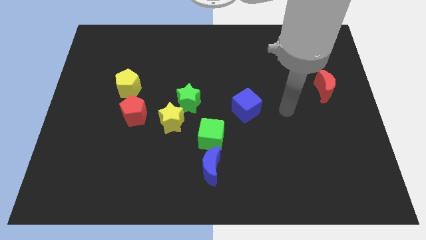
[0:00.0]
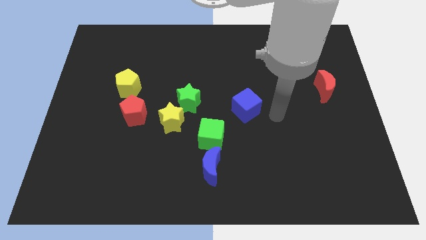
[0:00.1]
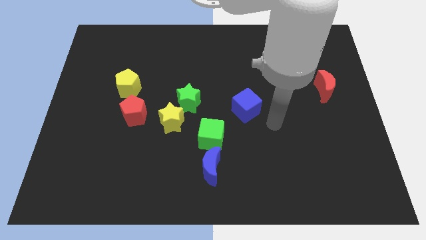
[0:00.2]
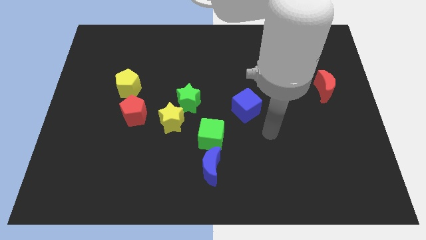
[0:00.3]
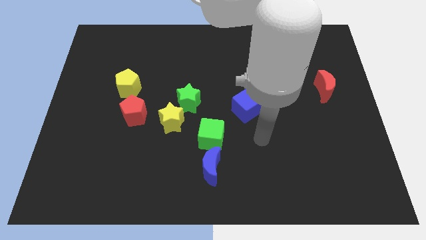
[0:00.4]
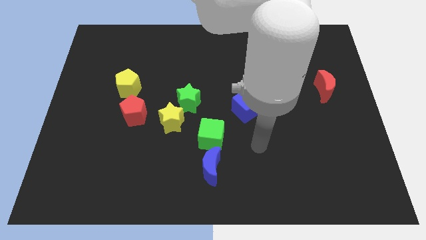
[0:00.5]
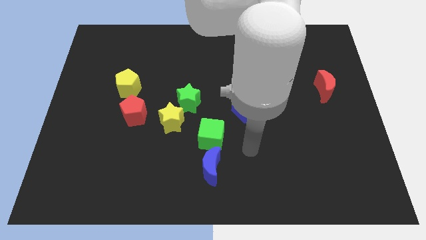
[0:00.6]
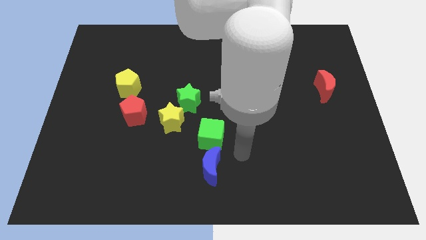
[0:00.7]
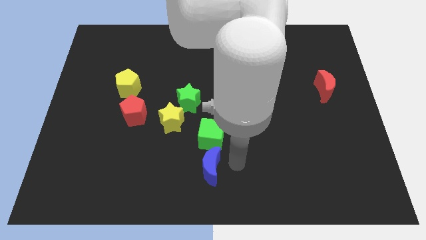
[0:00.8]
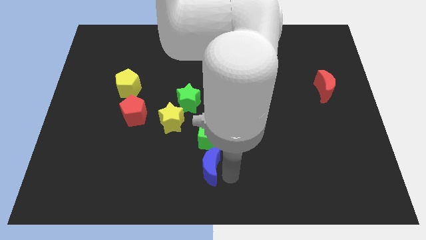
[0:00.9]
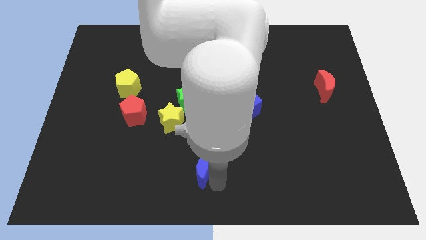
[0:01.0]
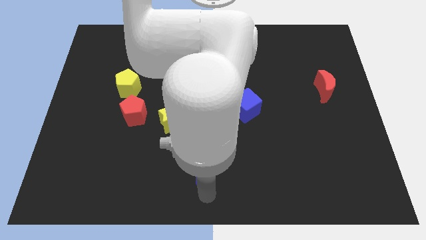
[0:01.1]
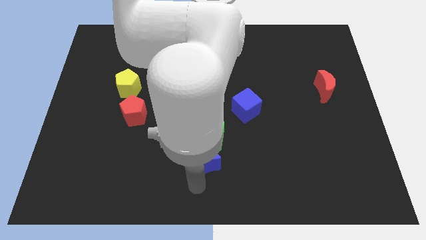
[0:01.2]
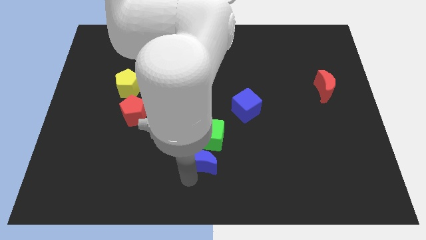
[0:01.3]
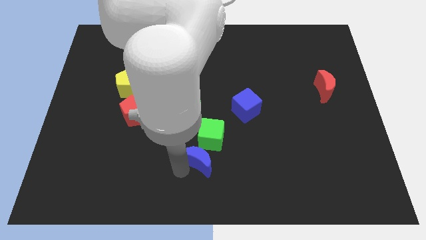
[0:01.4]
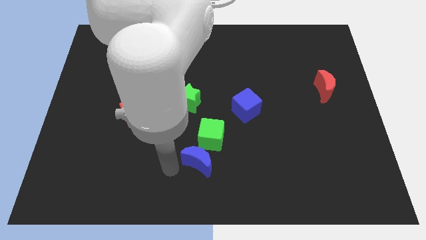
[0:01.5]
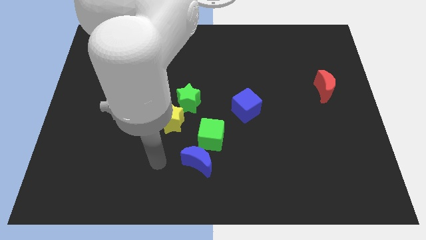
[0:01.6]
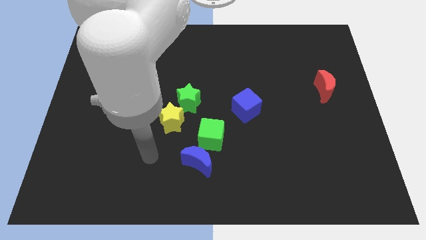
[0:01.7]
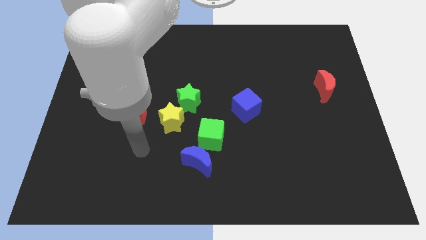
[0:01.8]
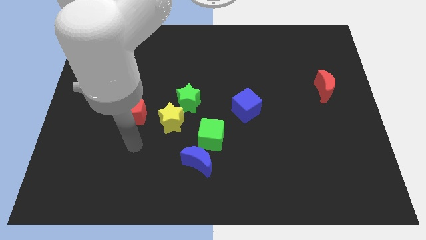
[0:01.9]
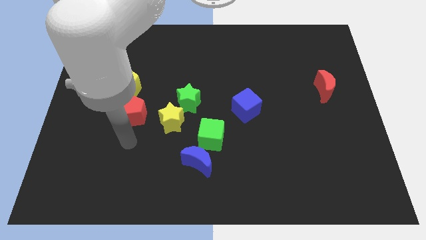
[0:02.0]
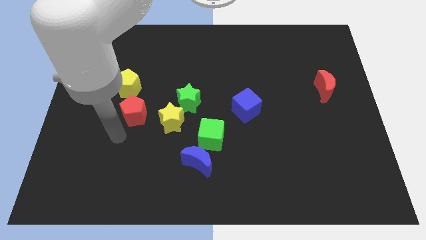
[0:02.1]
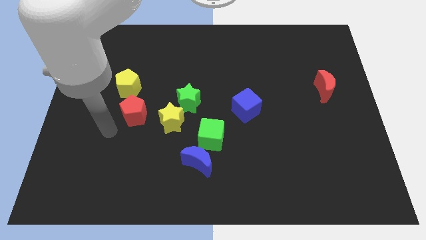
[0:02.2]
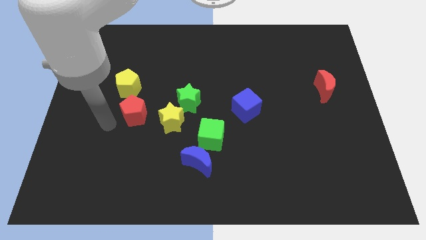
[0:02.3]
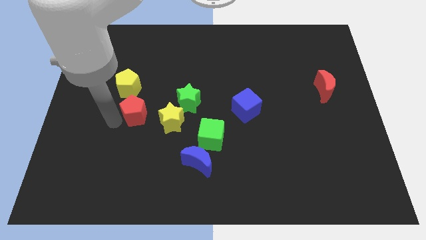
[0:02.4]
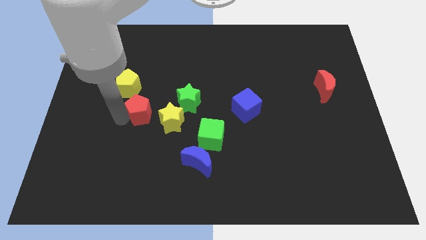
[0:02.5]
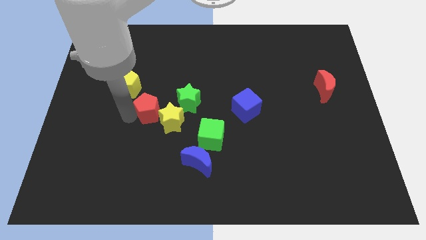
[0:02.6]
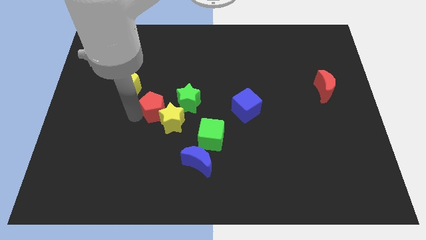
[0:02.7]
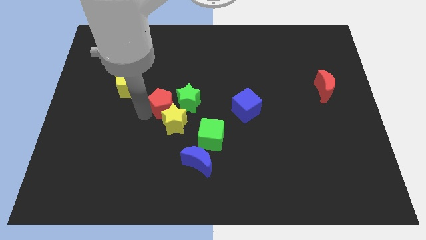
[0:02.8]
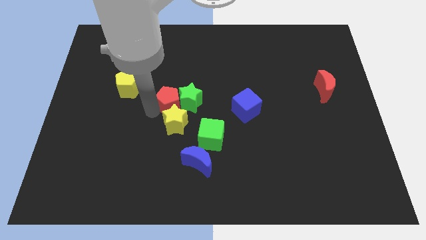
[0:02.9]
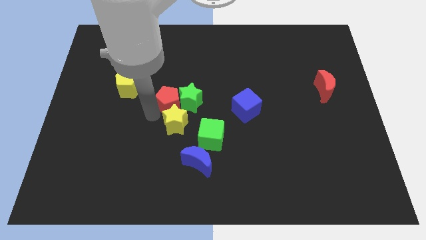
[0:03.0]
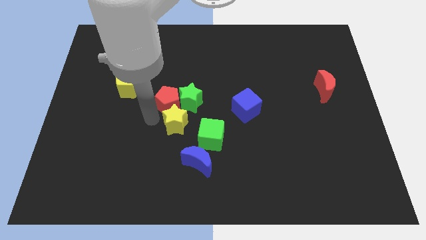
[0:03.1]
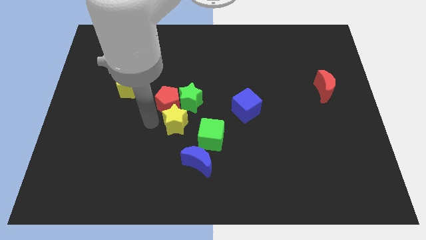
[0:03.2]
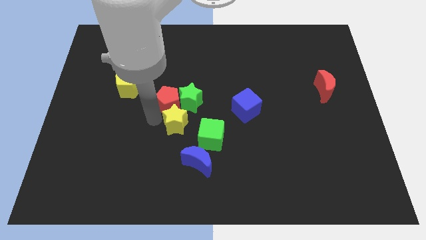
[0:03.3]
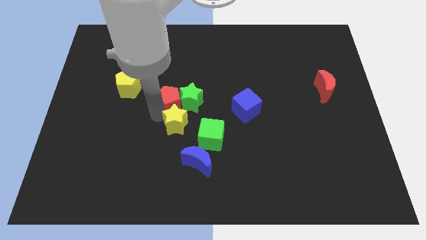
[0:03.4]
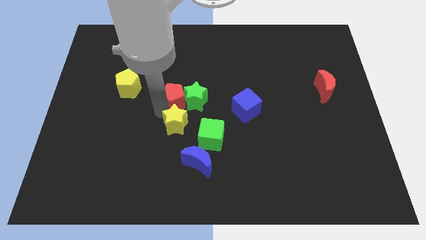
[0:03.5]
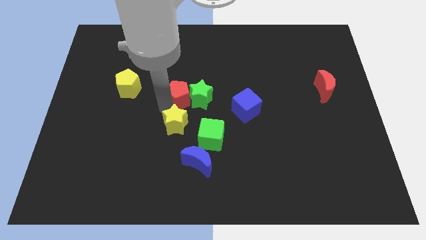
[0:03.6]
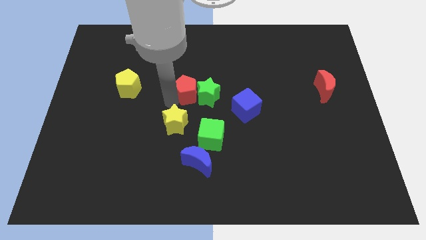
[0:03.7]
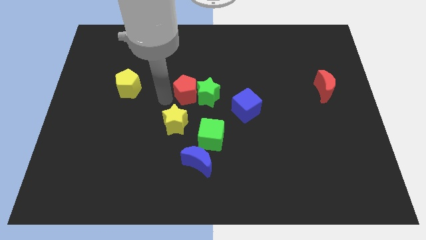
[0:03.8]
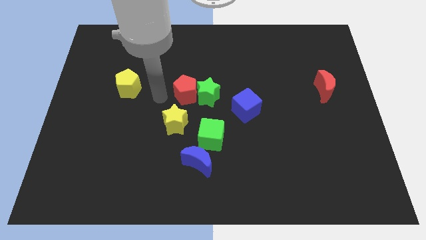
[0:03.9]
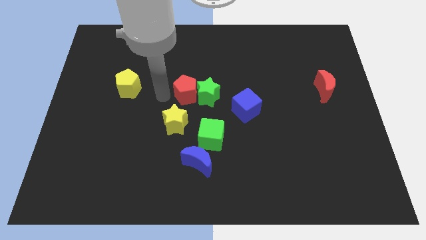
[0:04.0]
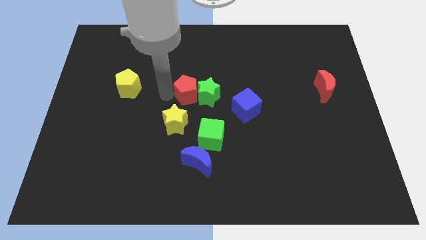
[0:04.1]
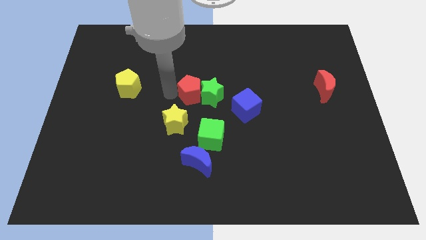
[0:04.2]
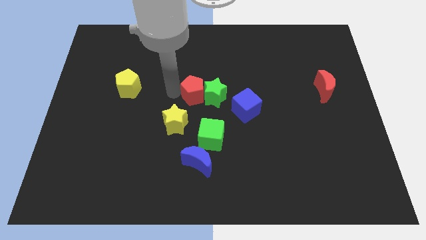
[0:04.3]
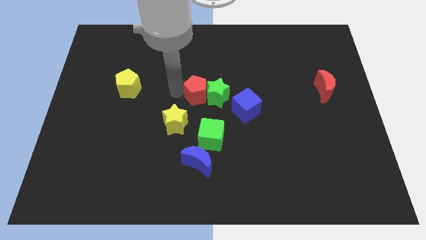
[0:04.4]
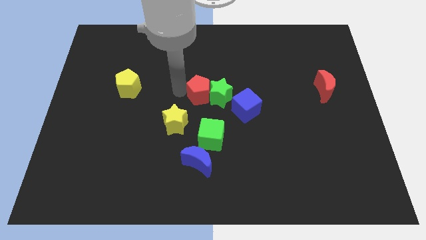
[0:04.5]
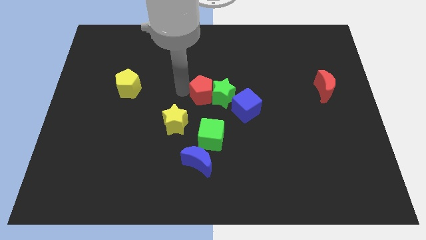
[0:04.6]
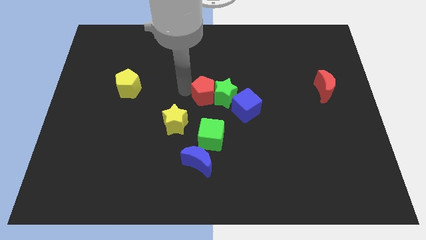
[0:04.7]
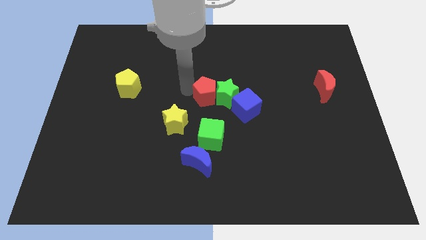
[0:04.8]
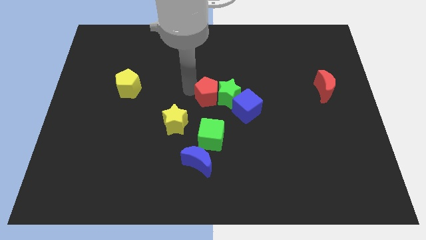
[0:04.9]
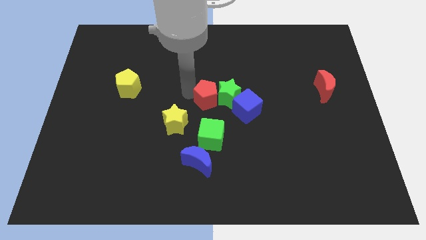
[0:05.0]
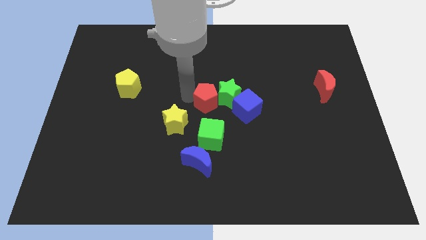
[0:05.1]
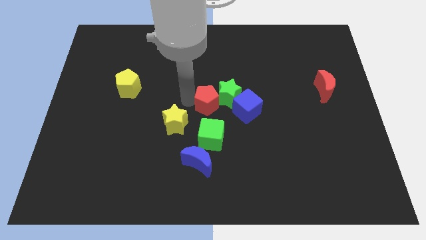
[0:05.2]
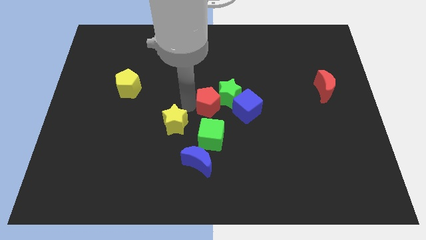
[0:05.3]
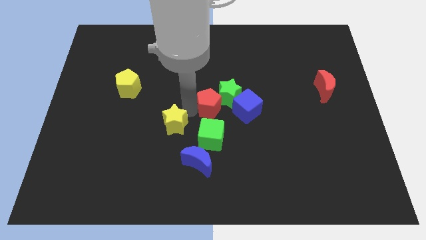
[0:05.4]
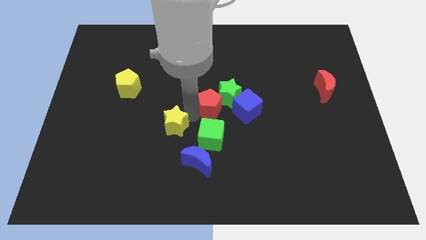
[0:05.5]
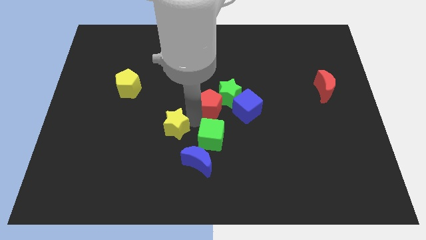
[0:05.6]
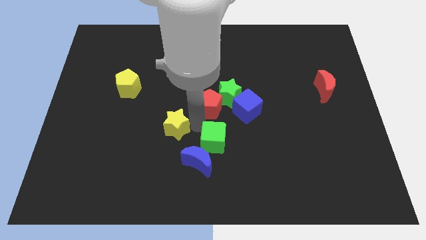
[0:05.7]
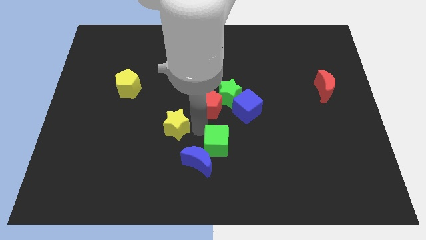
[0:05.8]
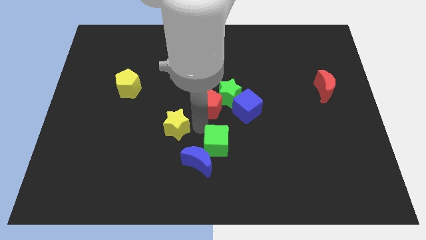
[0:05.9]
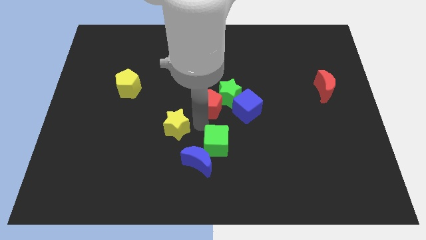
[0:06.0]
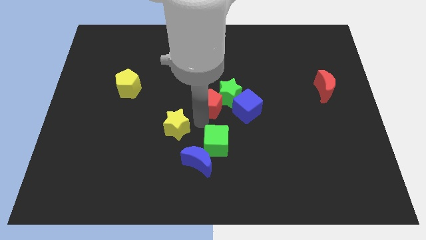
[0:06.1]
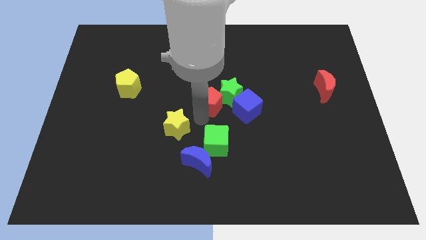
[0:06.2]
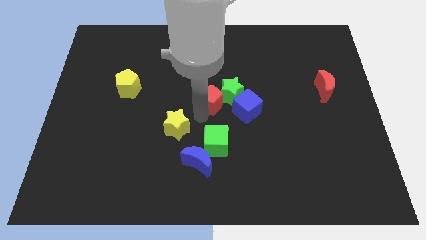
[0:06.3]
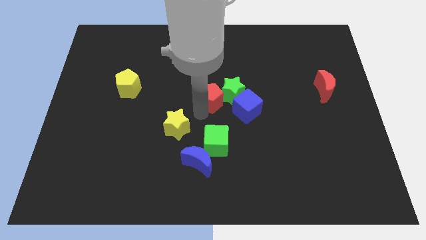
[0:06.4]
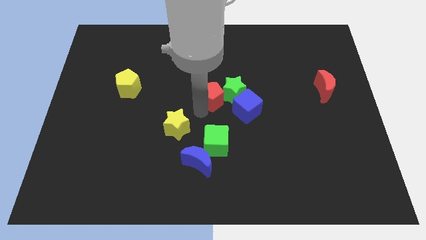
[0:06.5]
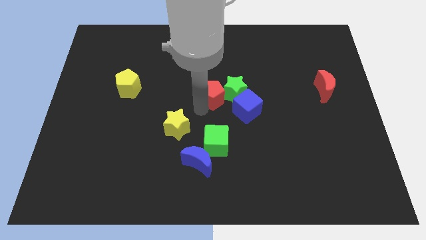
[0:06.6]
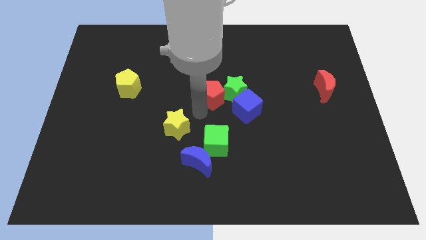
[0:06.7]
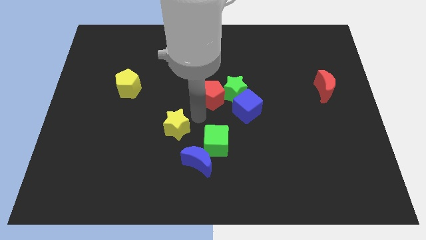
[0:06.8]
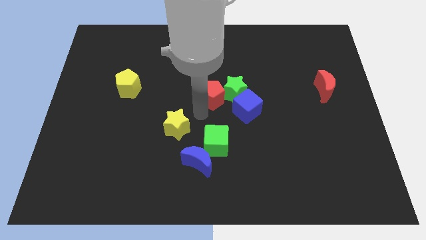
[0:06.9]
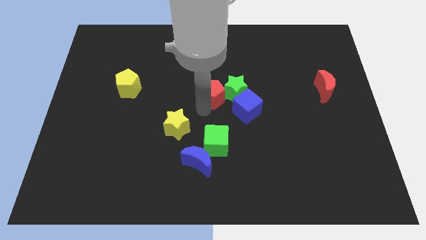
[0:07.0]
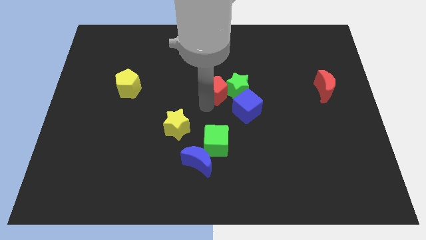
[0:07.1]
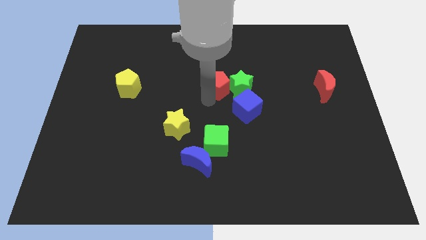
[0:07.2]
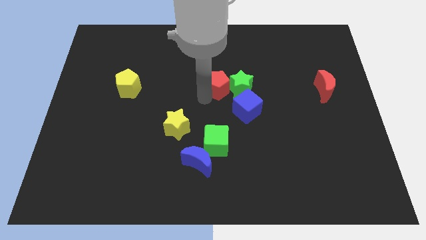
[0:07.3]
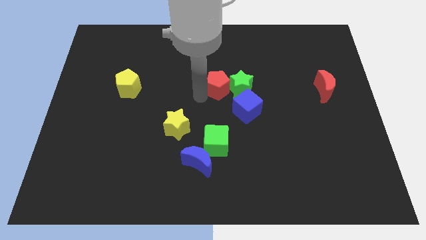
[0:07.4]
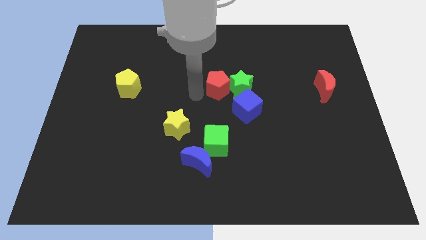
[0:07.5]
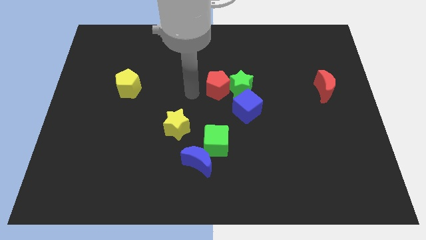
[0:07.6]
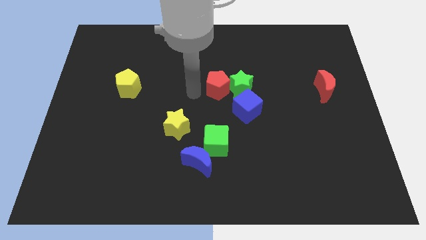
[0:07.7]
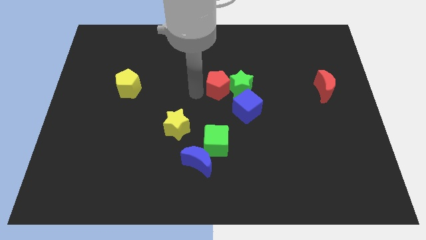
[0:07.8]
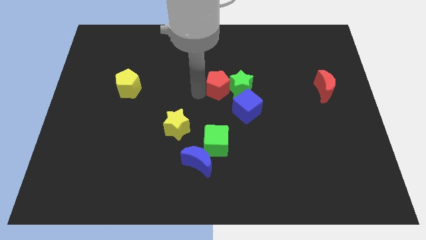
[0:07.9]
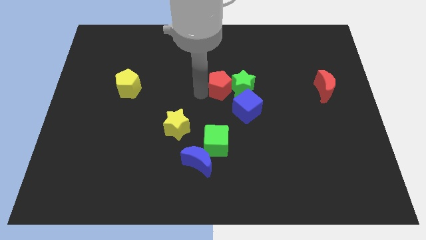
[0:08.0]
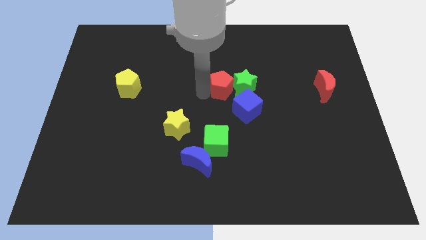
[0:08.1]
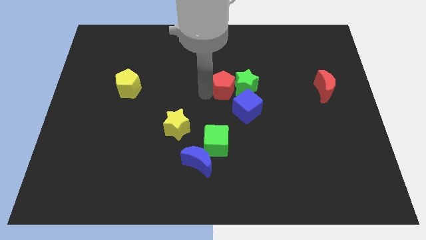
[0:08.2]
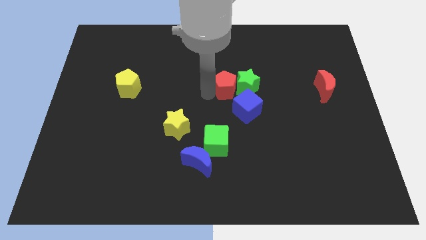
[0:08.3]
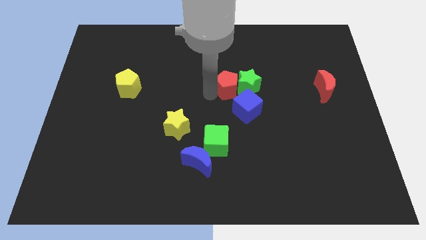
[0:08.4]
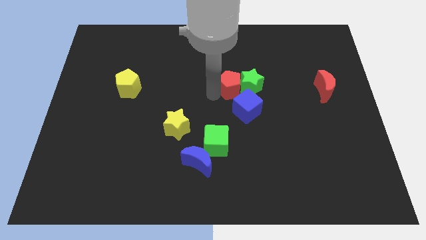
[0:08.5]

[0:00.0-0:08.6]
push the red pentagon right
